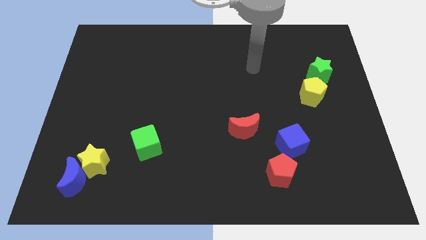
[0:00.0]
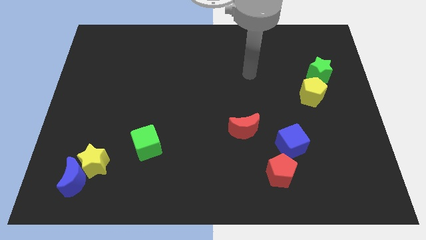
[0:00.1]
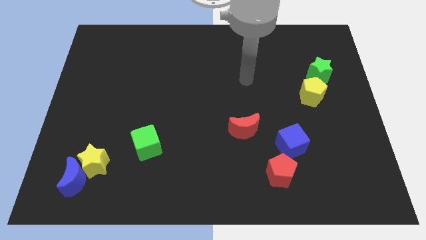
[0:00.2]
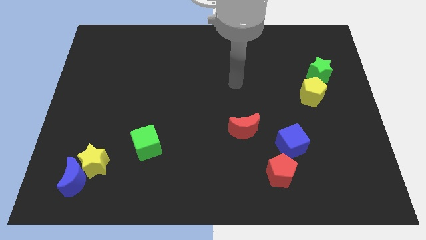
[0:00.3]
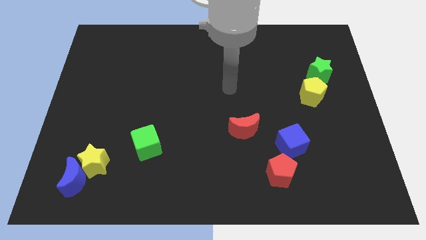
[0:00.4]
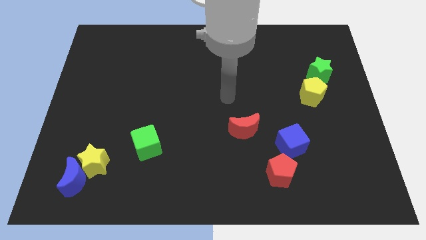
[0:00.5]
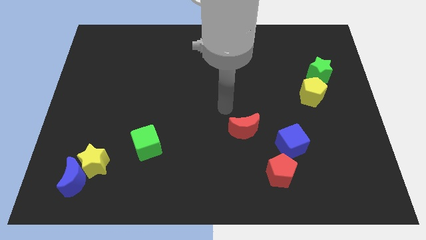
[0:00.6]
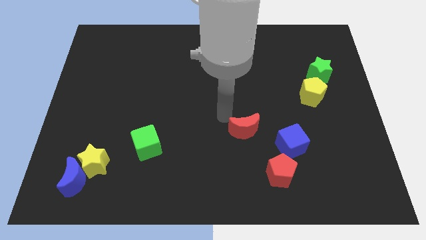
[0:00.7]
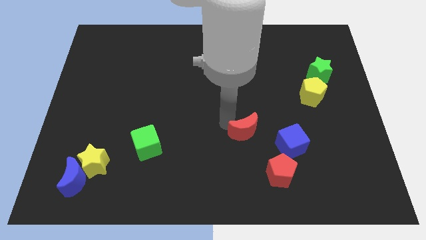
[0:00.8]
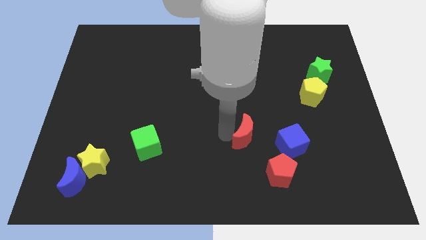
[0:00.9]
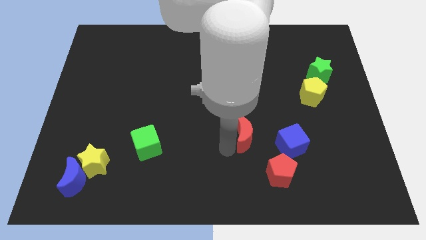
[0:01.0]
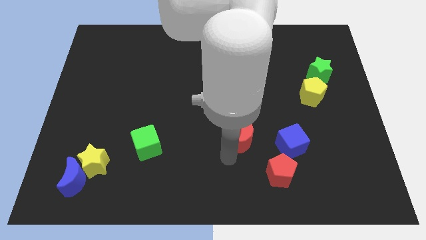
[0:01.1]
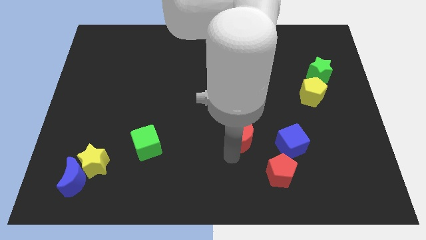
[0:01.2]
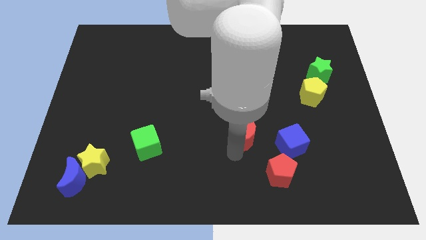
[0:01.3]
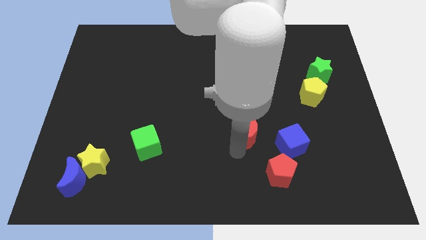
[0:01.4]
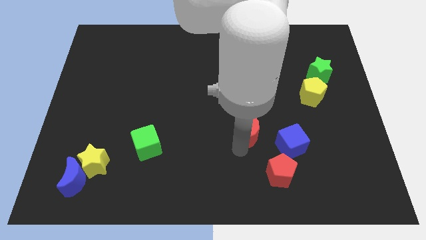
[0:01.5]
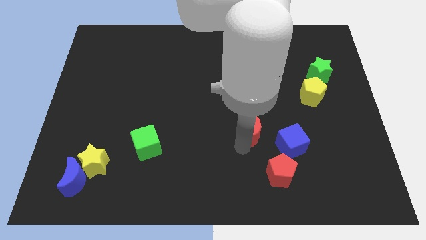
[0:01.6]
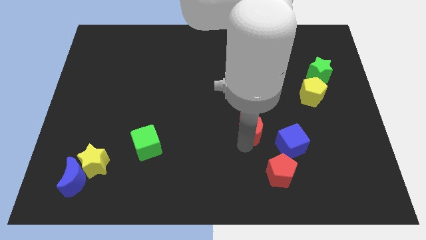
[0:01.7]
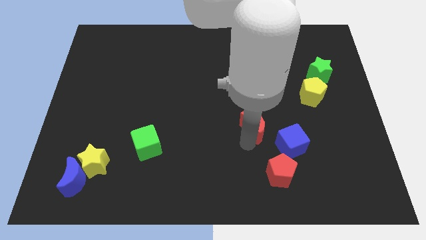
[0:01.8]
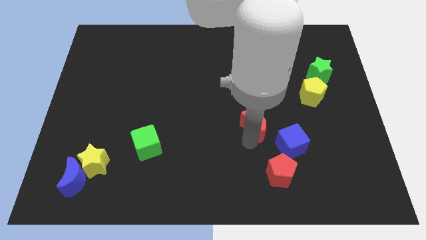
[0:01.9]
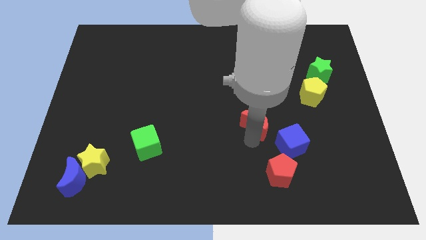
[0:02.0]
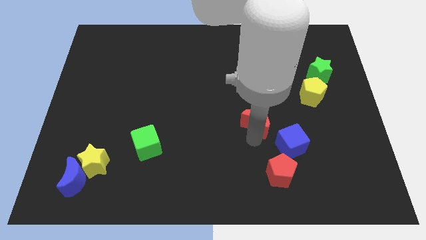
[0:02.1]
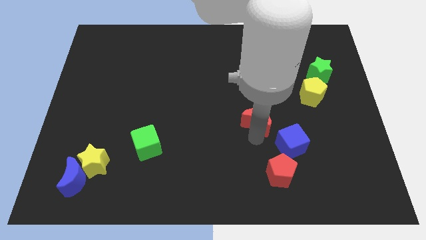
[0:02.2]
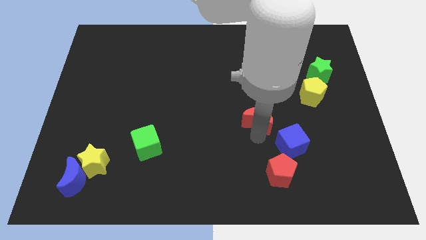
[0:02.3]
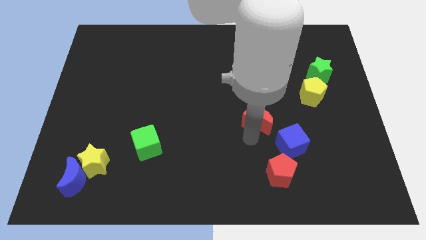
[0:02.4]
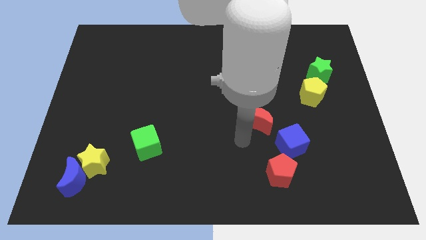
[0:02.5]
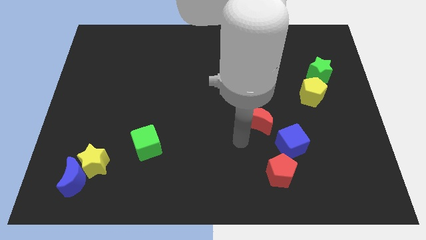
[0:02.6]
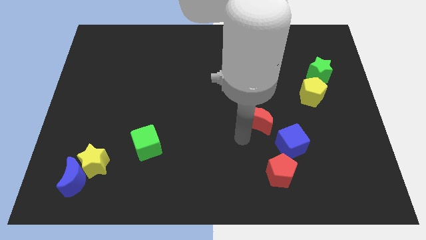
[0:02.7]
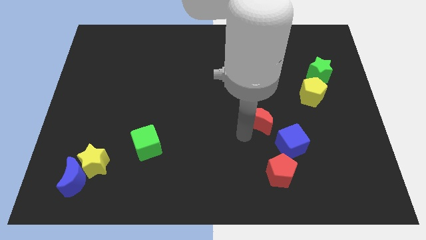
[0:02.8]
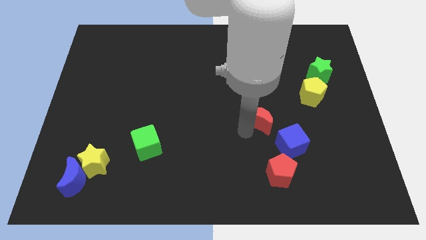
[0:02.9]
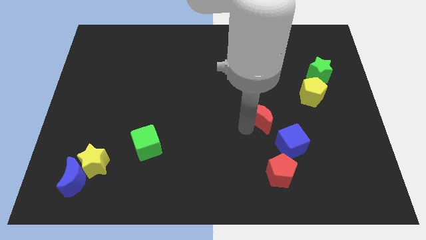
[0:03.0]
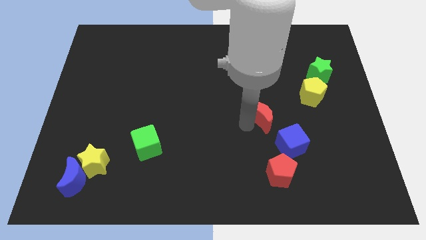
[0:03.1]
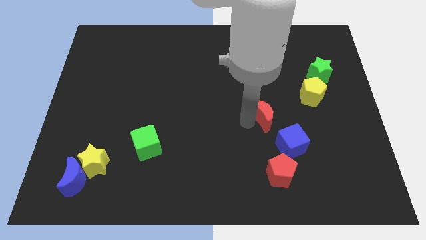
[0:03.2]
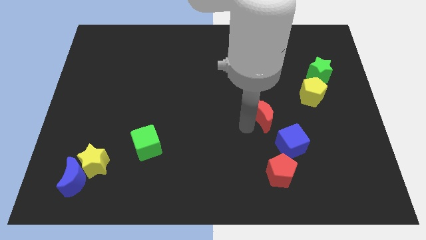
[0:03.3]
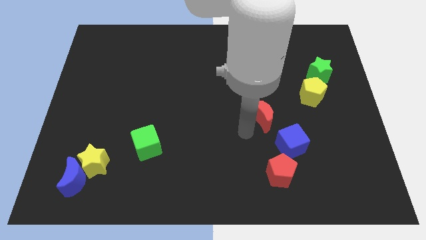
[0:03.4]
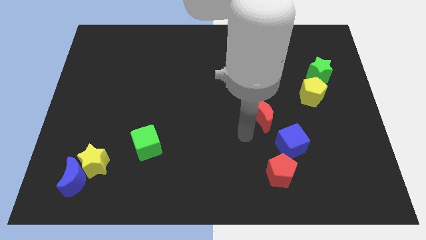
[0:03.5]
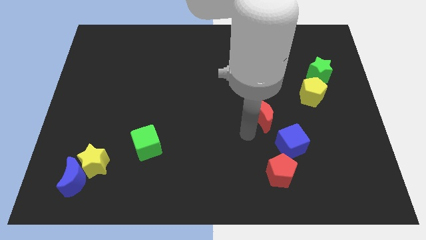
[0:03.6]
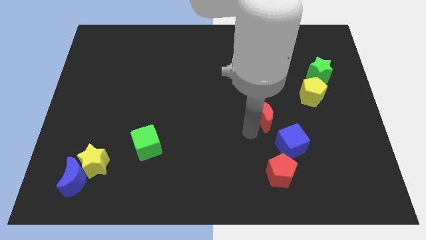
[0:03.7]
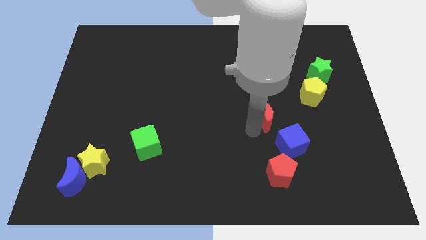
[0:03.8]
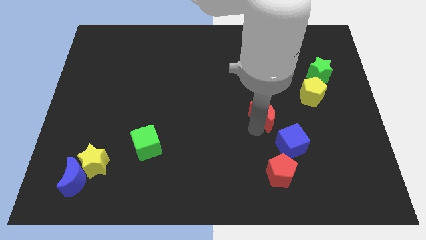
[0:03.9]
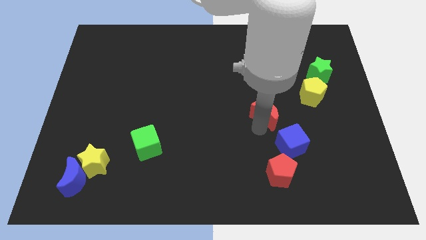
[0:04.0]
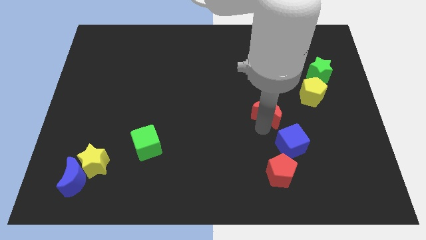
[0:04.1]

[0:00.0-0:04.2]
push the red moon upwards and then to the right a little bit

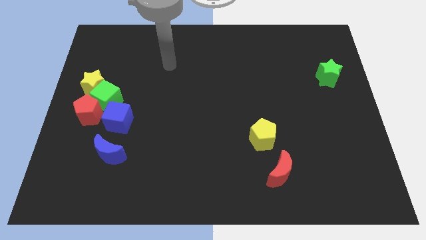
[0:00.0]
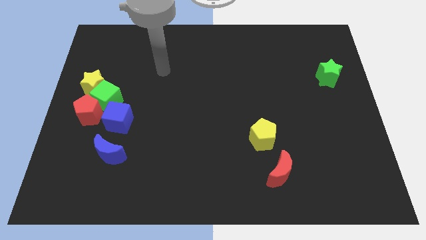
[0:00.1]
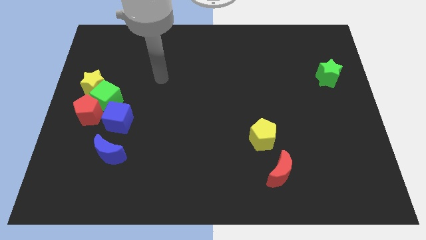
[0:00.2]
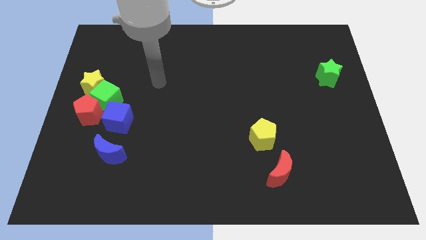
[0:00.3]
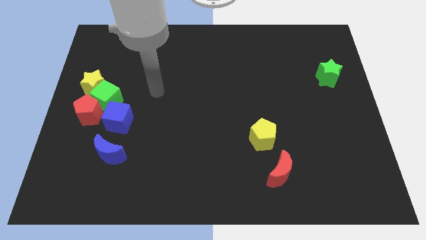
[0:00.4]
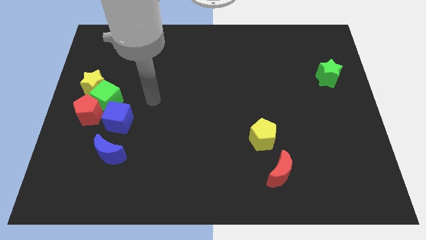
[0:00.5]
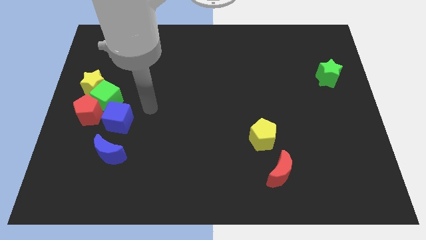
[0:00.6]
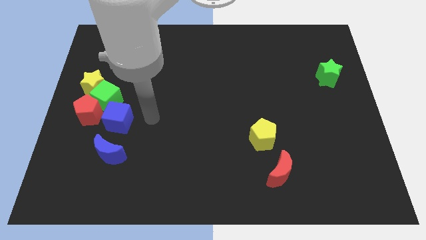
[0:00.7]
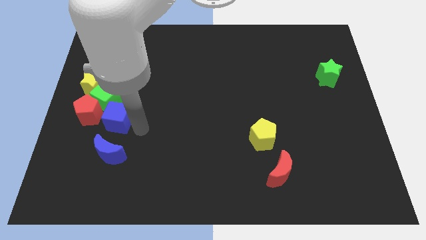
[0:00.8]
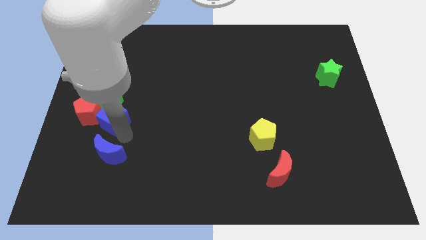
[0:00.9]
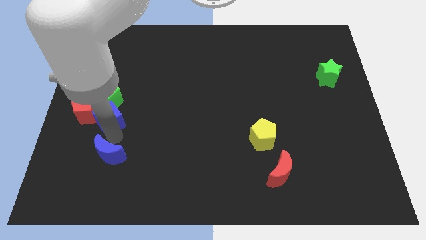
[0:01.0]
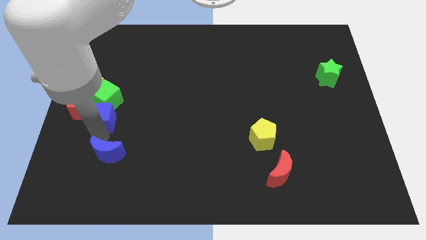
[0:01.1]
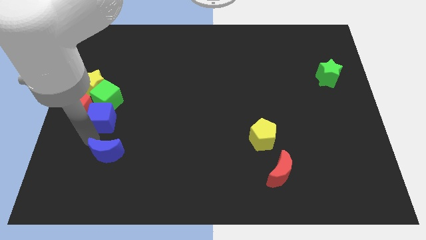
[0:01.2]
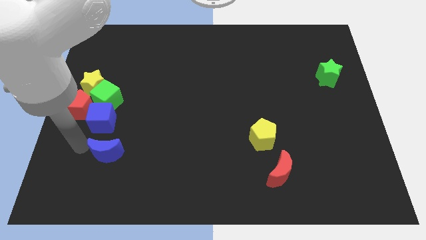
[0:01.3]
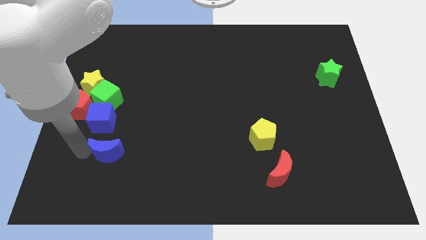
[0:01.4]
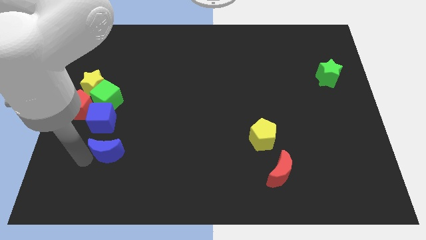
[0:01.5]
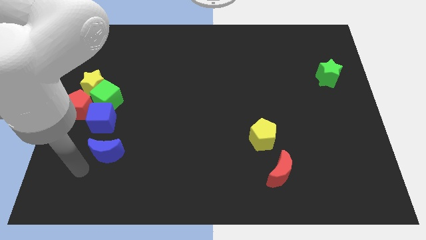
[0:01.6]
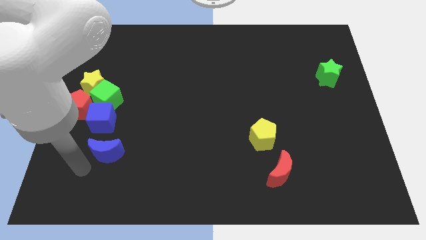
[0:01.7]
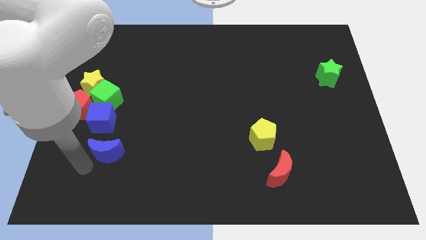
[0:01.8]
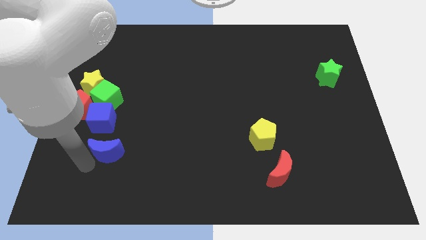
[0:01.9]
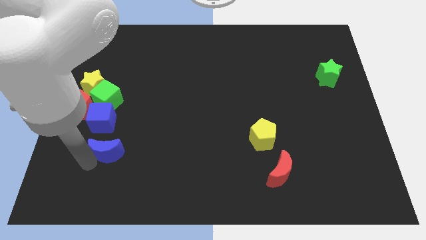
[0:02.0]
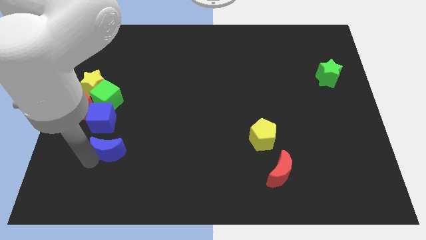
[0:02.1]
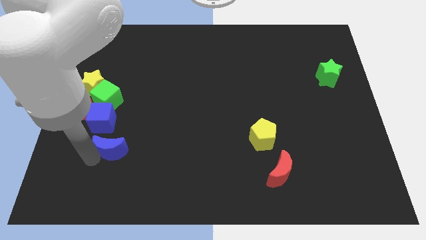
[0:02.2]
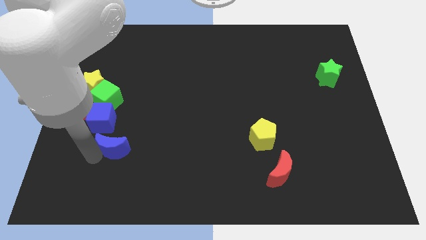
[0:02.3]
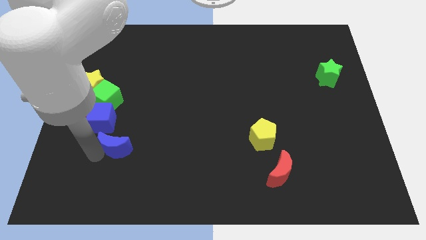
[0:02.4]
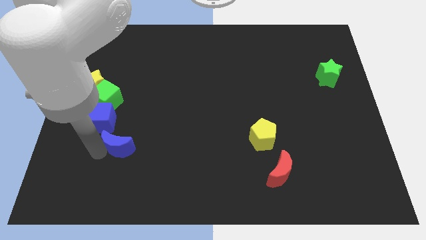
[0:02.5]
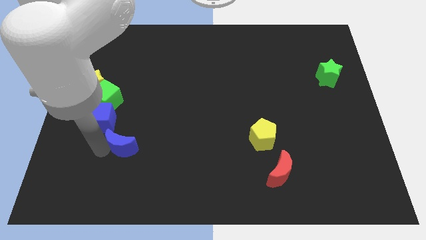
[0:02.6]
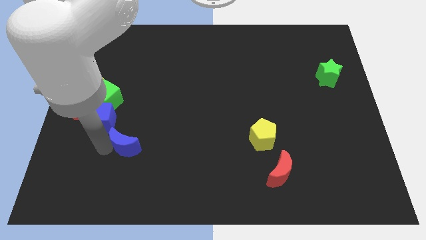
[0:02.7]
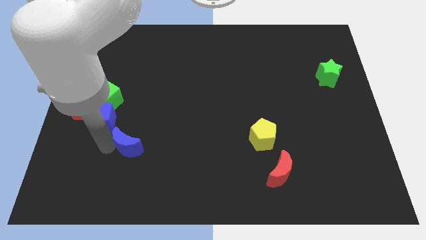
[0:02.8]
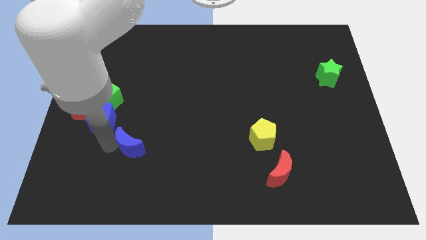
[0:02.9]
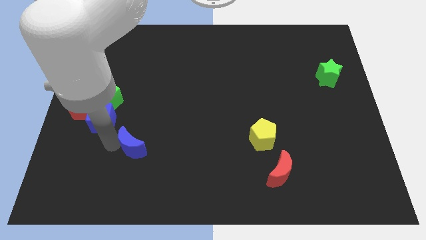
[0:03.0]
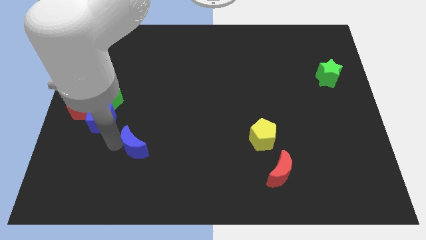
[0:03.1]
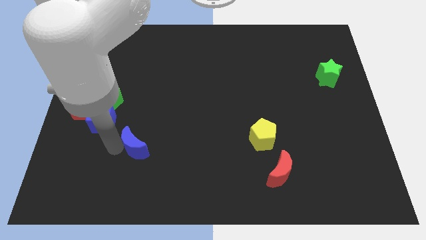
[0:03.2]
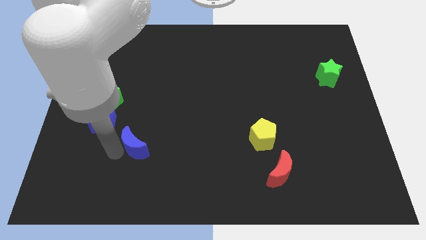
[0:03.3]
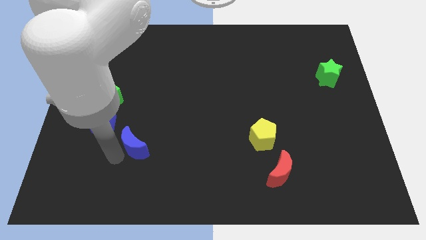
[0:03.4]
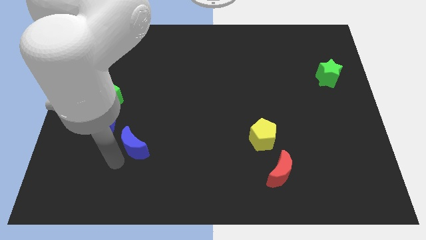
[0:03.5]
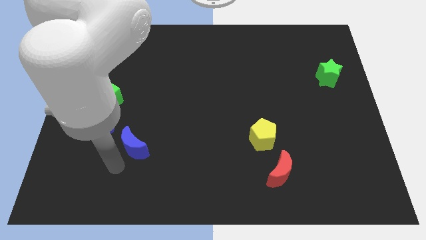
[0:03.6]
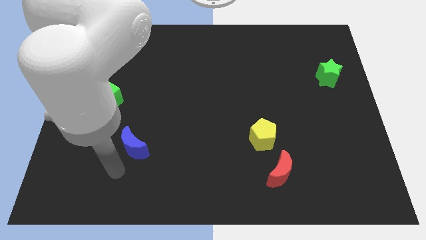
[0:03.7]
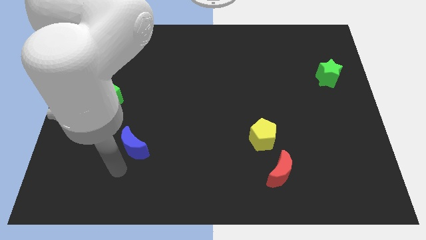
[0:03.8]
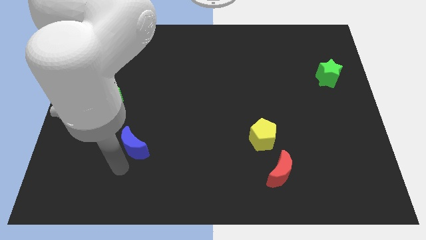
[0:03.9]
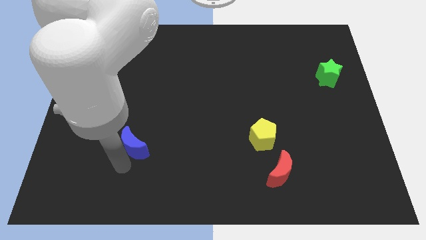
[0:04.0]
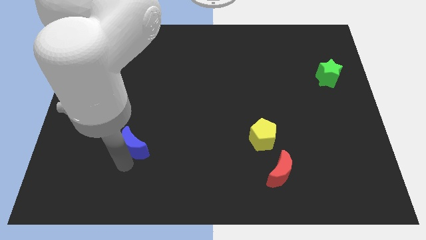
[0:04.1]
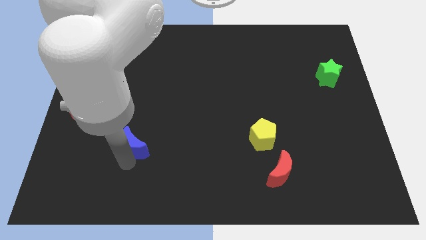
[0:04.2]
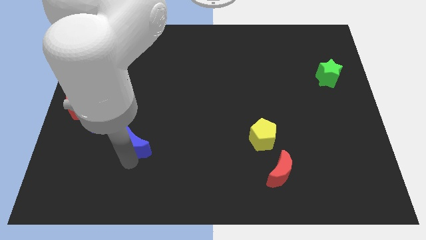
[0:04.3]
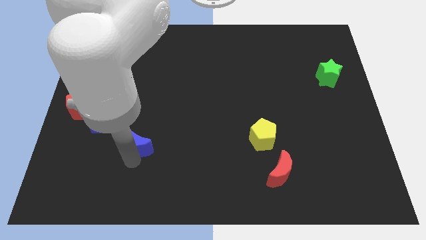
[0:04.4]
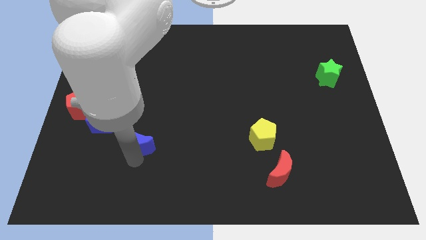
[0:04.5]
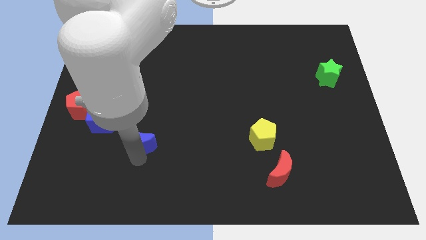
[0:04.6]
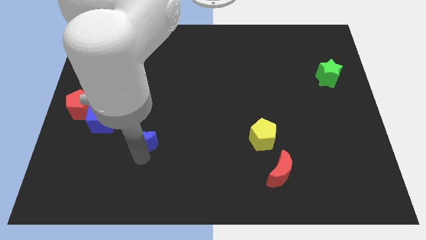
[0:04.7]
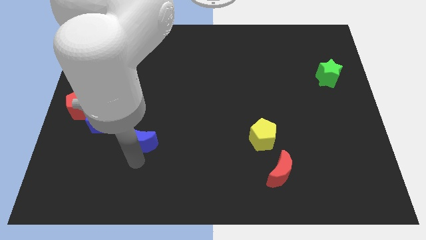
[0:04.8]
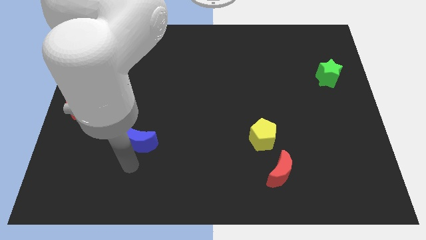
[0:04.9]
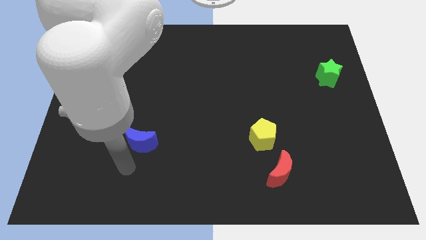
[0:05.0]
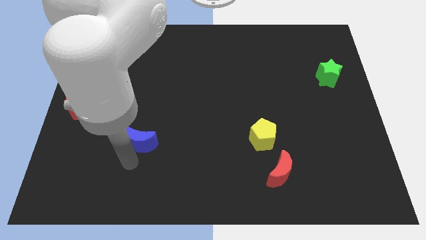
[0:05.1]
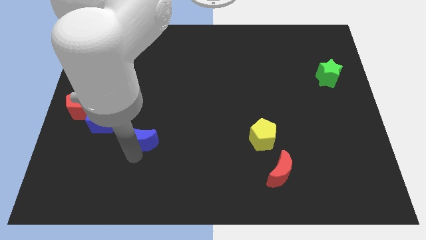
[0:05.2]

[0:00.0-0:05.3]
slightly move the blue moon up and right
